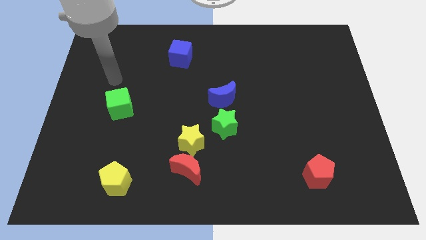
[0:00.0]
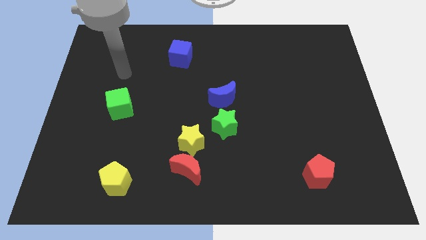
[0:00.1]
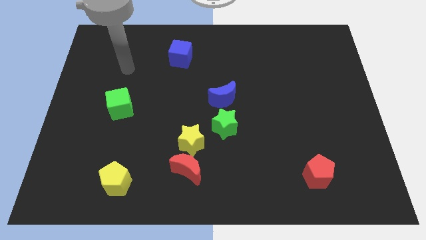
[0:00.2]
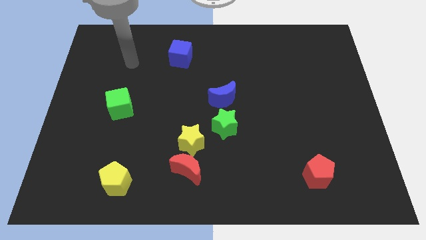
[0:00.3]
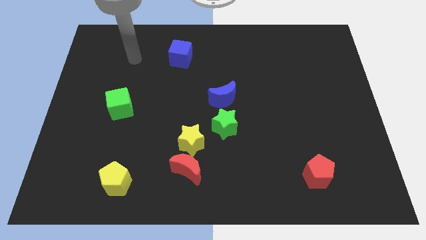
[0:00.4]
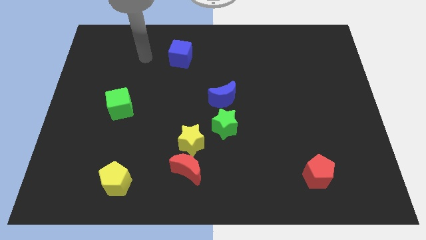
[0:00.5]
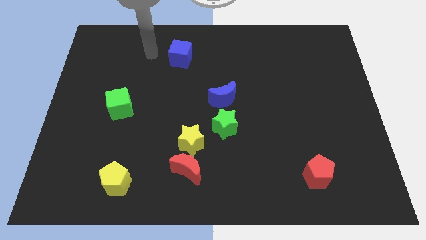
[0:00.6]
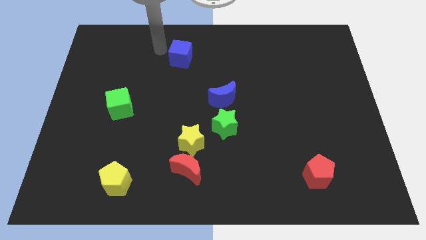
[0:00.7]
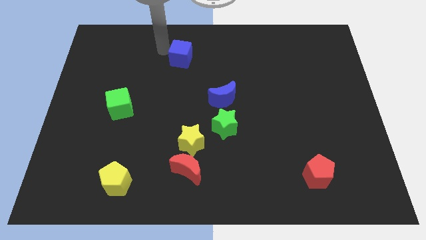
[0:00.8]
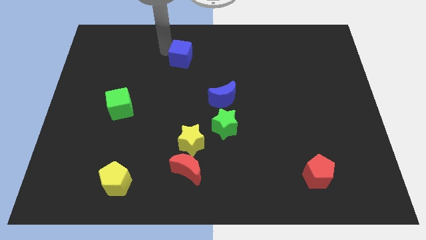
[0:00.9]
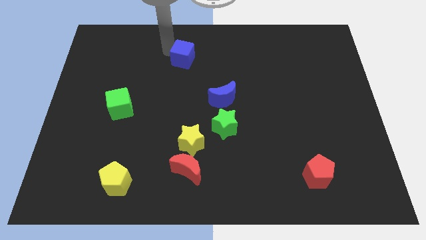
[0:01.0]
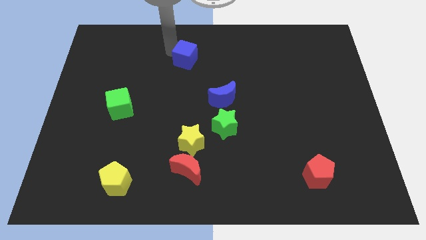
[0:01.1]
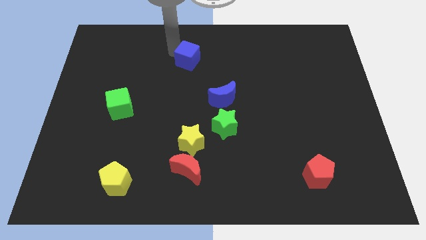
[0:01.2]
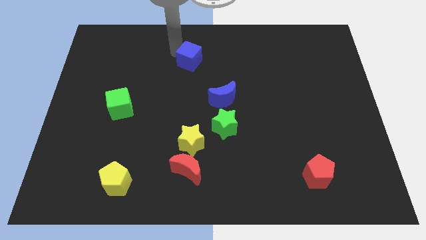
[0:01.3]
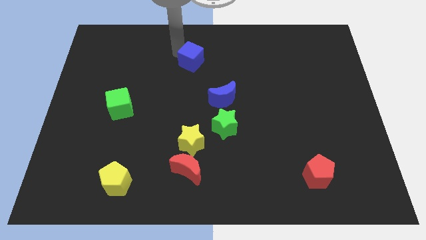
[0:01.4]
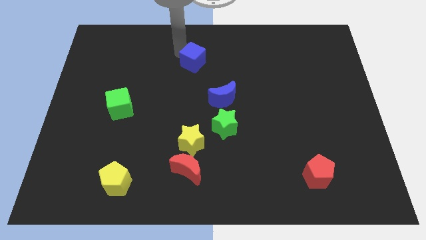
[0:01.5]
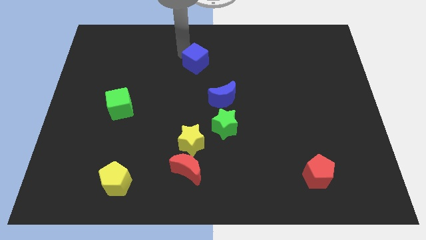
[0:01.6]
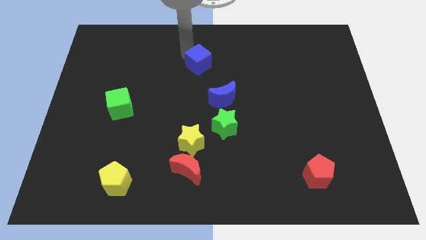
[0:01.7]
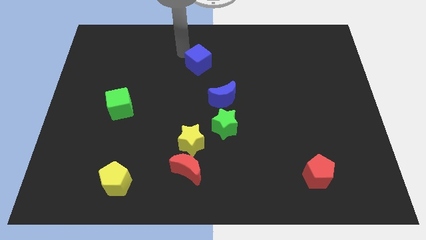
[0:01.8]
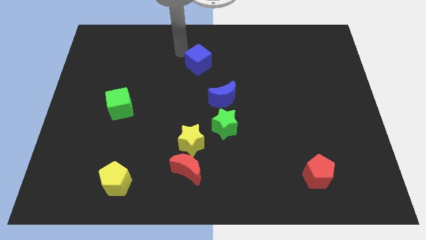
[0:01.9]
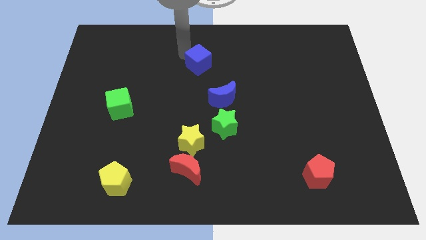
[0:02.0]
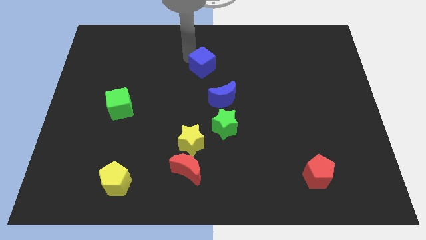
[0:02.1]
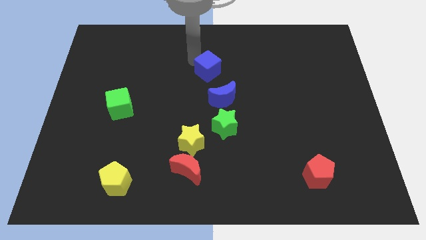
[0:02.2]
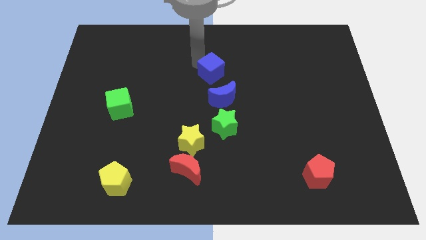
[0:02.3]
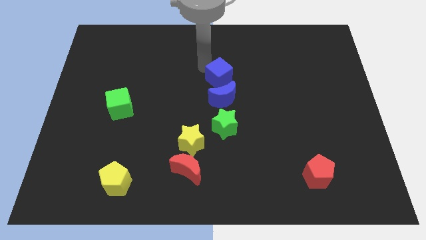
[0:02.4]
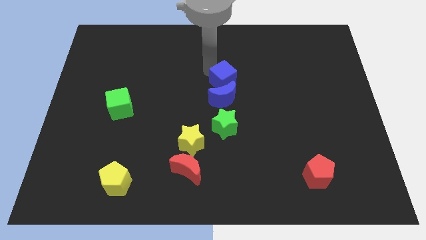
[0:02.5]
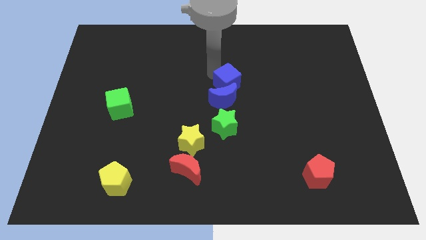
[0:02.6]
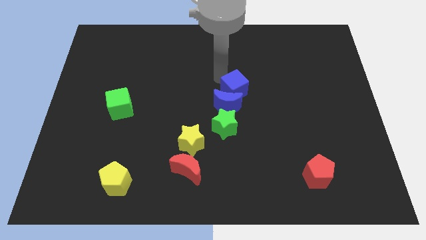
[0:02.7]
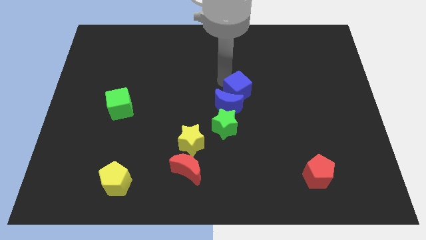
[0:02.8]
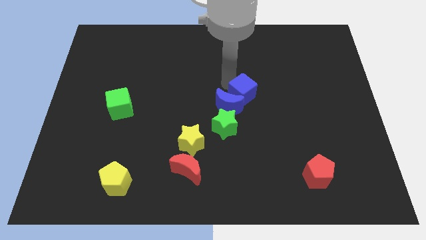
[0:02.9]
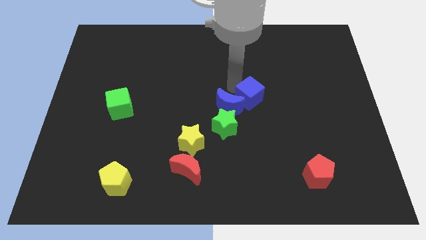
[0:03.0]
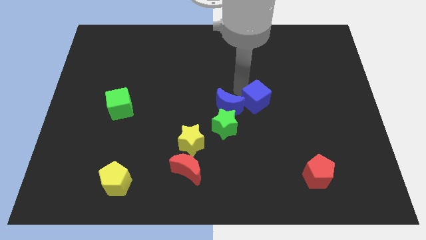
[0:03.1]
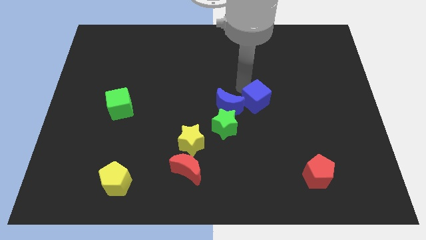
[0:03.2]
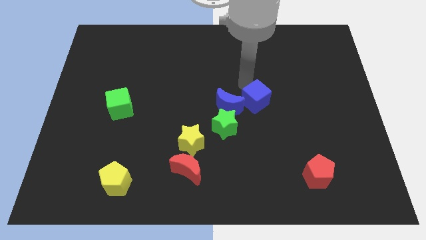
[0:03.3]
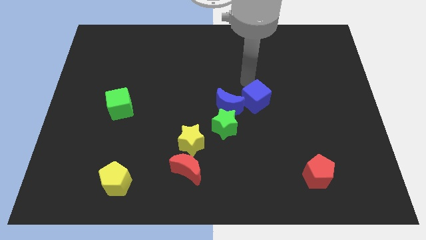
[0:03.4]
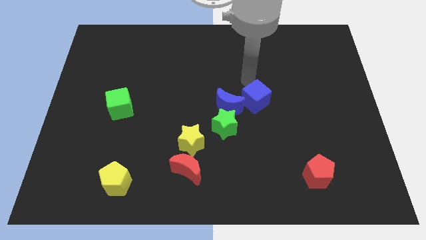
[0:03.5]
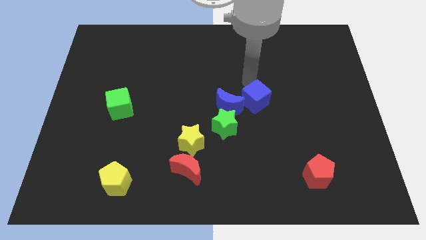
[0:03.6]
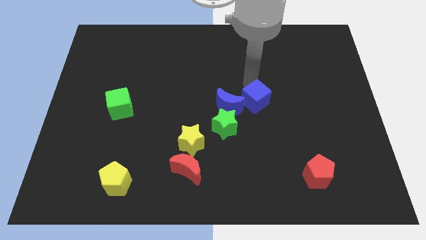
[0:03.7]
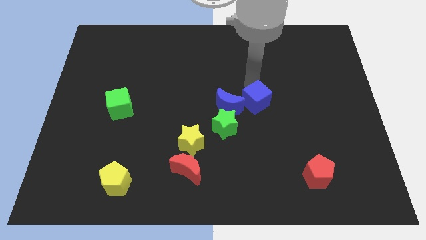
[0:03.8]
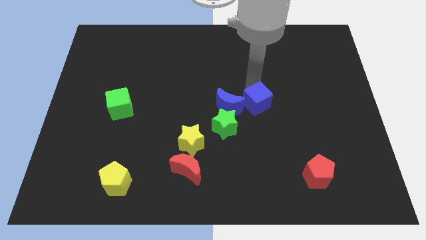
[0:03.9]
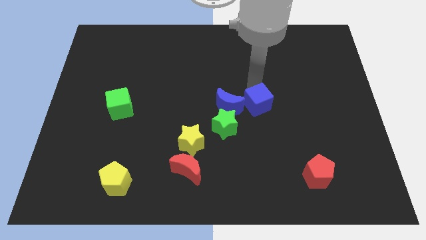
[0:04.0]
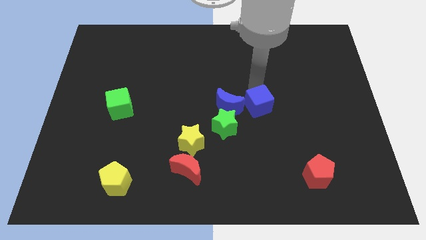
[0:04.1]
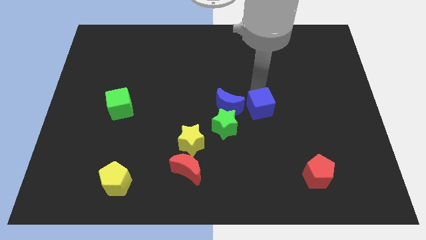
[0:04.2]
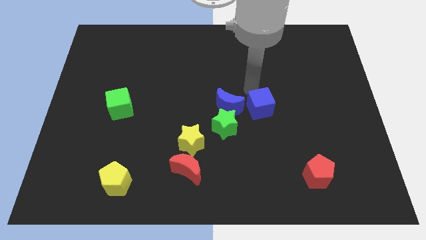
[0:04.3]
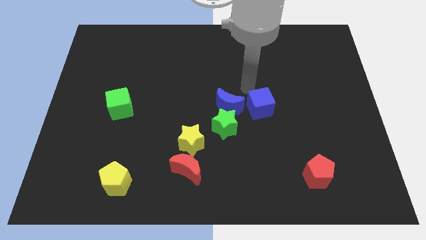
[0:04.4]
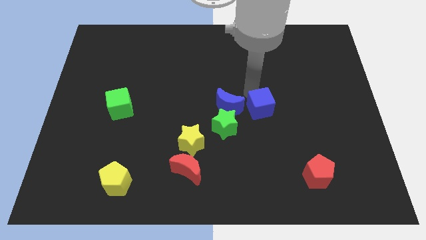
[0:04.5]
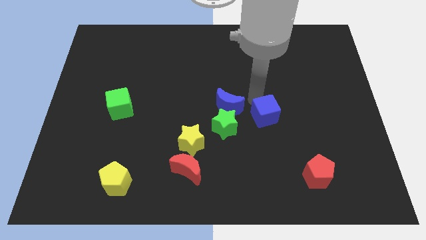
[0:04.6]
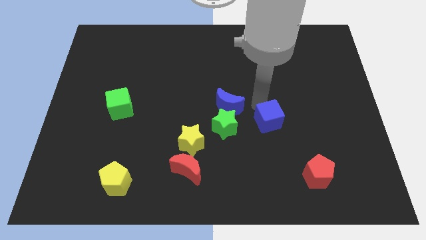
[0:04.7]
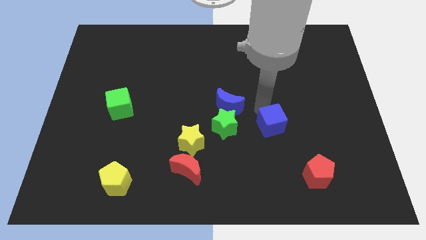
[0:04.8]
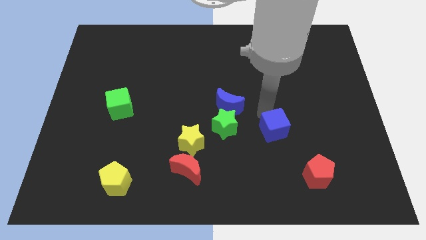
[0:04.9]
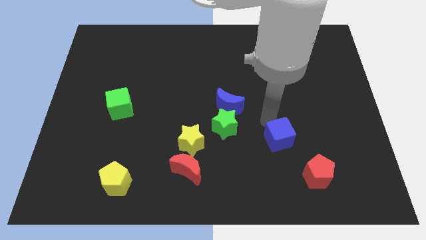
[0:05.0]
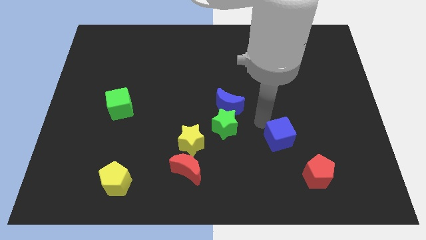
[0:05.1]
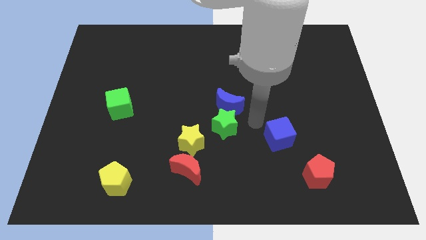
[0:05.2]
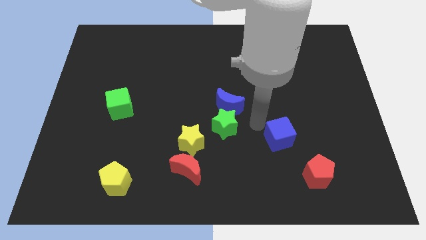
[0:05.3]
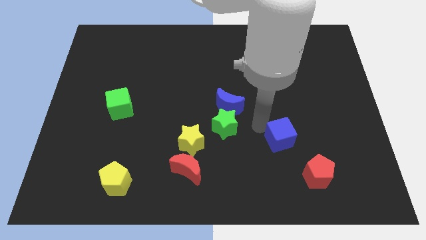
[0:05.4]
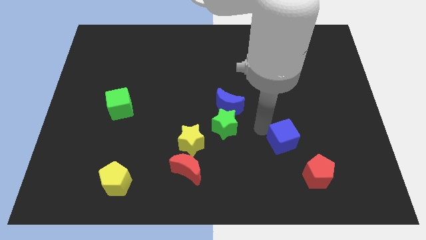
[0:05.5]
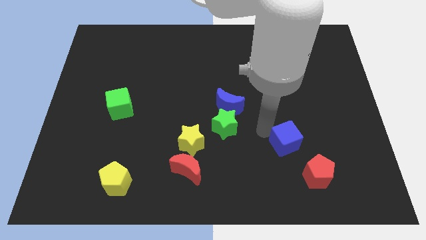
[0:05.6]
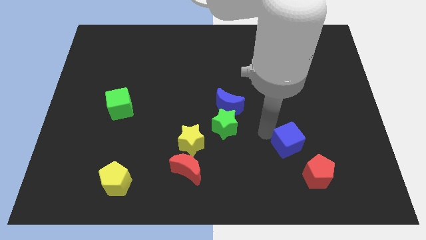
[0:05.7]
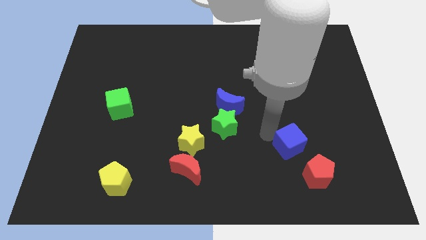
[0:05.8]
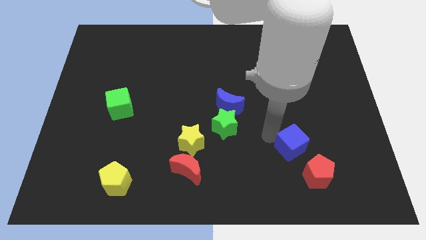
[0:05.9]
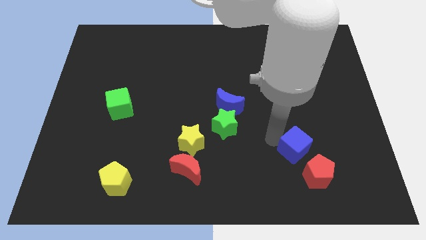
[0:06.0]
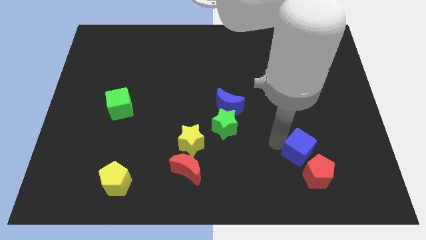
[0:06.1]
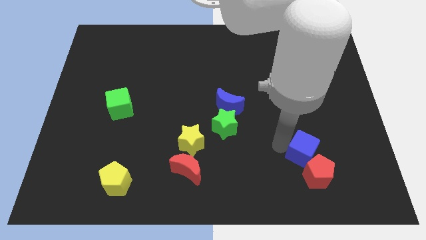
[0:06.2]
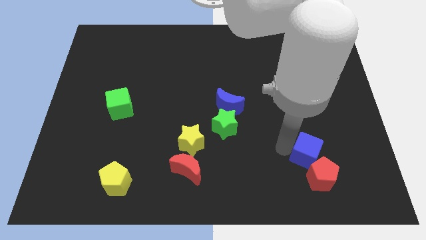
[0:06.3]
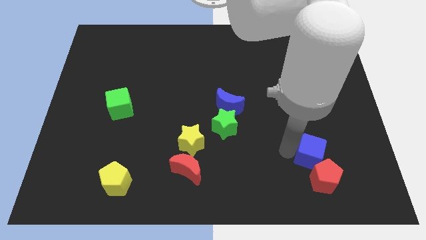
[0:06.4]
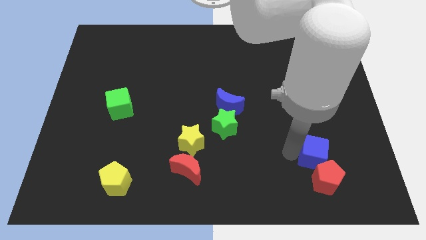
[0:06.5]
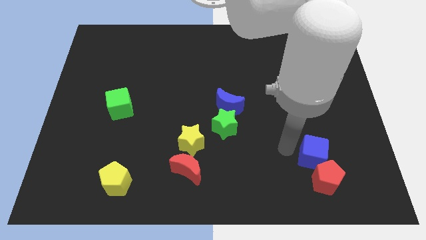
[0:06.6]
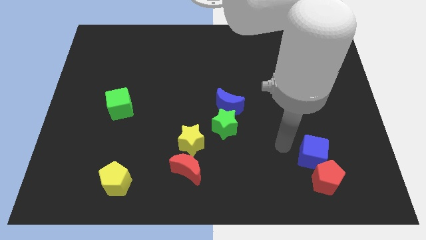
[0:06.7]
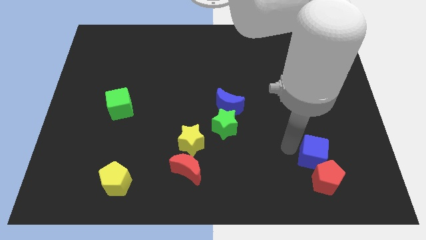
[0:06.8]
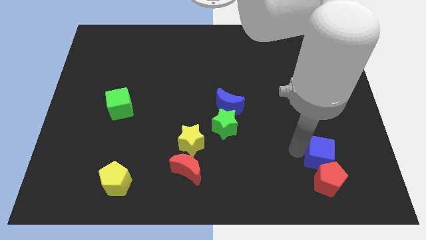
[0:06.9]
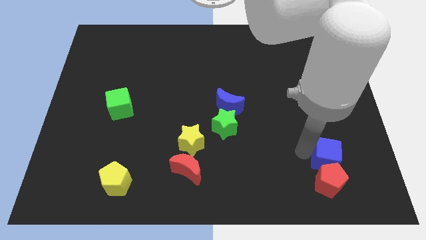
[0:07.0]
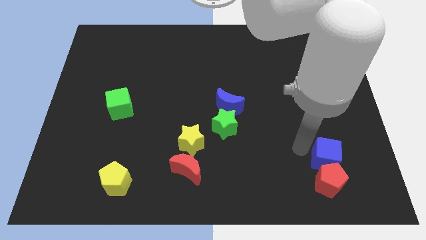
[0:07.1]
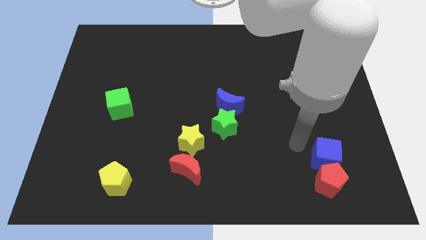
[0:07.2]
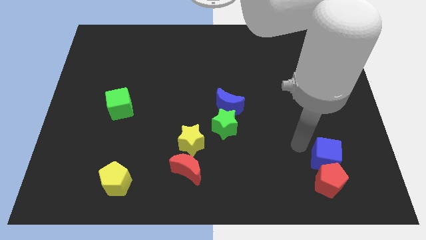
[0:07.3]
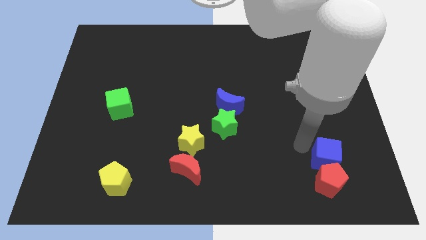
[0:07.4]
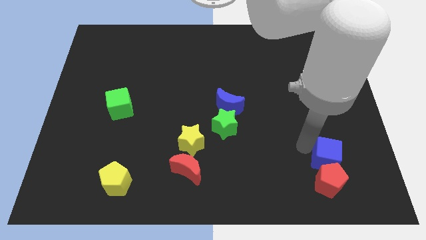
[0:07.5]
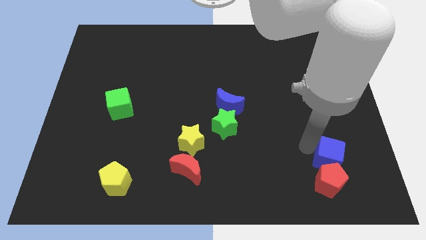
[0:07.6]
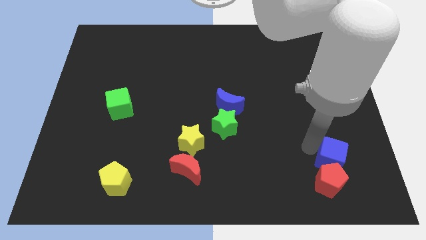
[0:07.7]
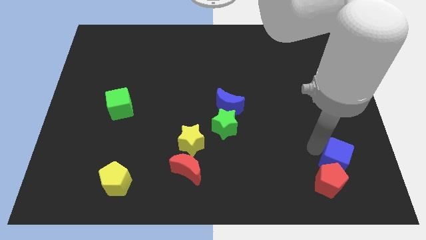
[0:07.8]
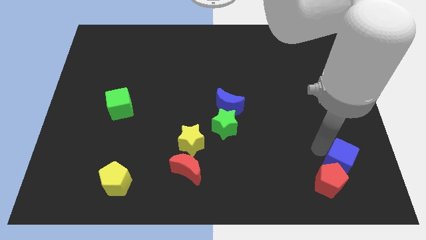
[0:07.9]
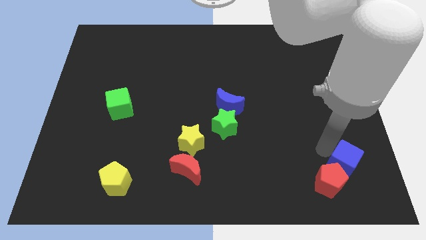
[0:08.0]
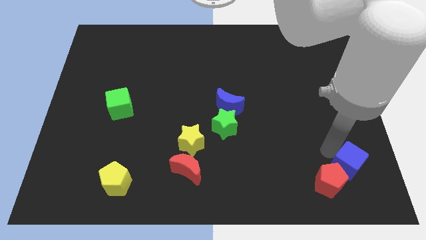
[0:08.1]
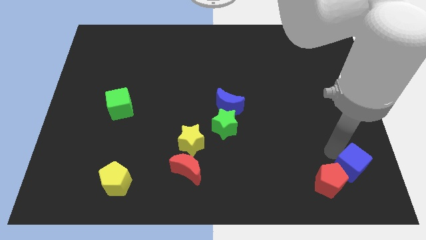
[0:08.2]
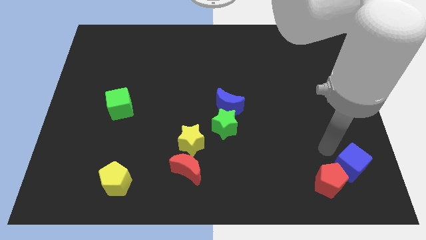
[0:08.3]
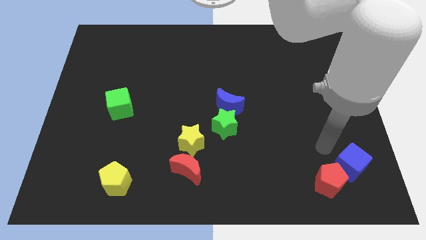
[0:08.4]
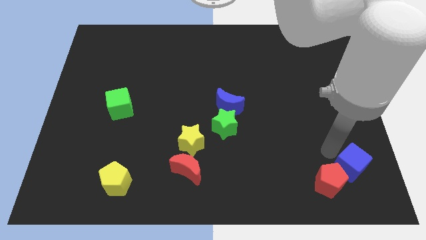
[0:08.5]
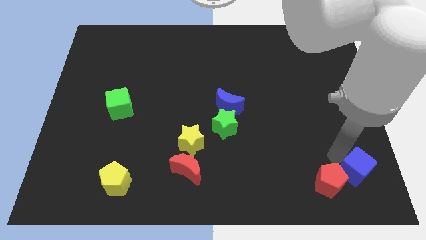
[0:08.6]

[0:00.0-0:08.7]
put the blue cube to the bottom right corner
